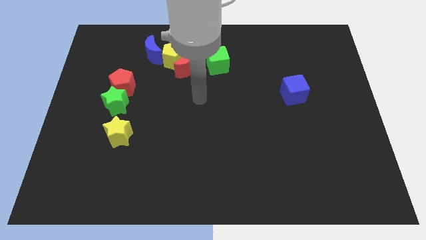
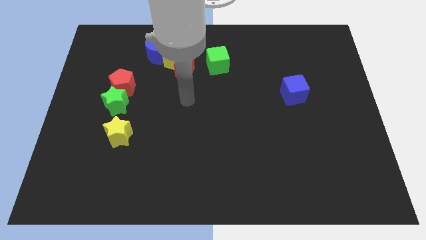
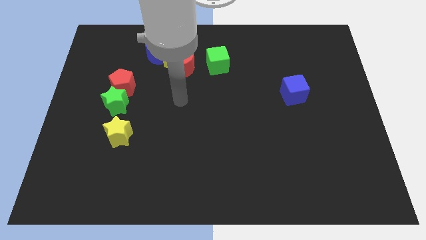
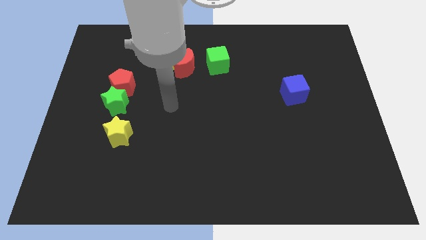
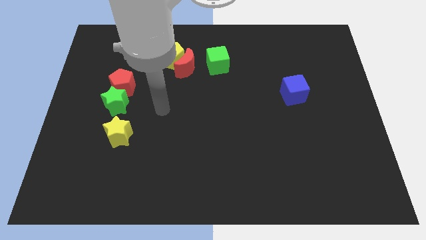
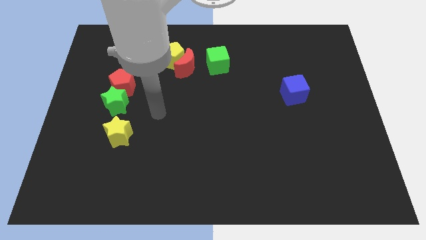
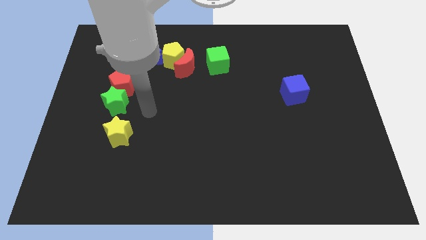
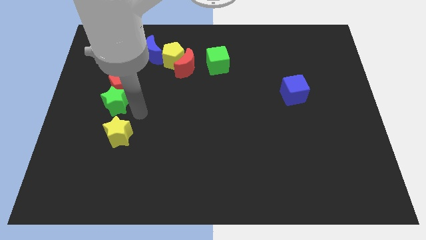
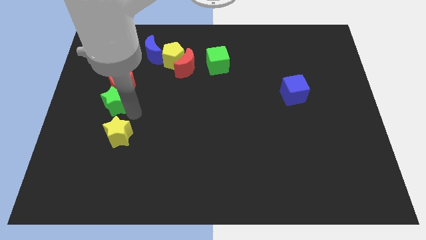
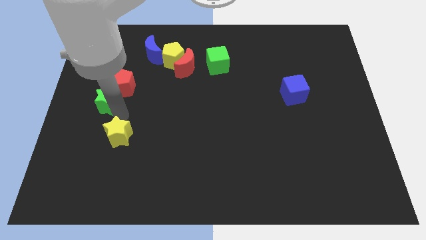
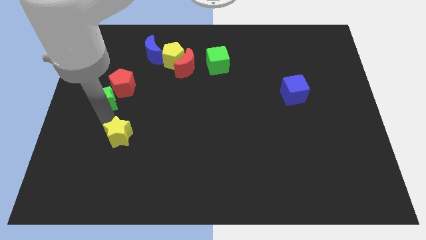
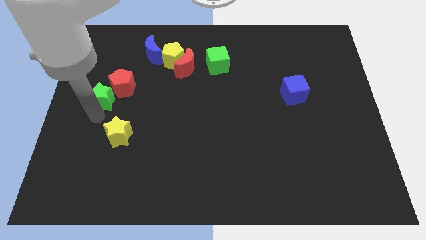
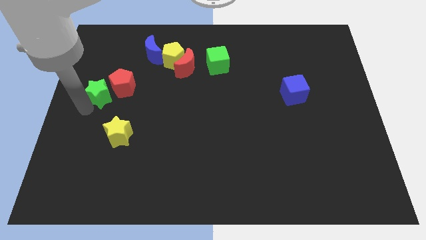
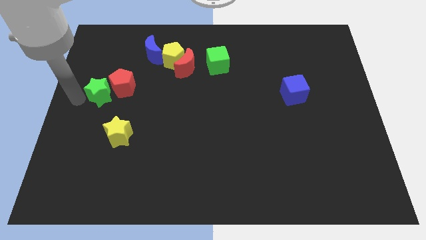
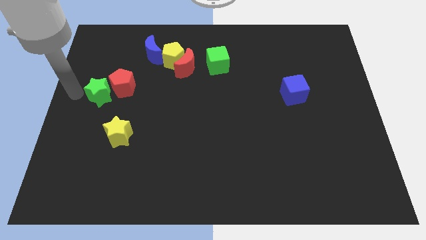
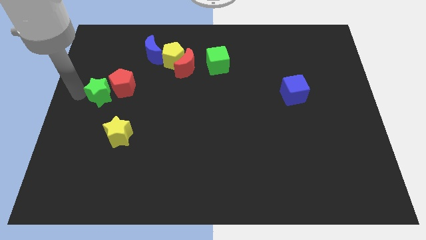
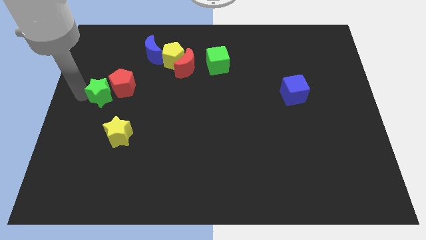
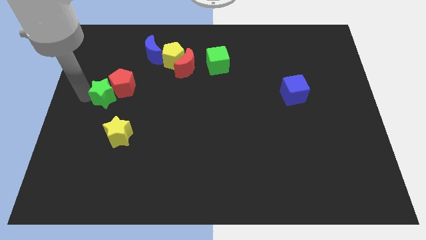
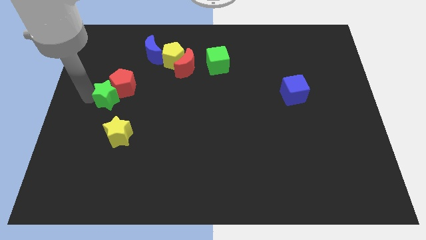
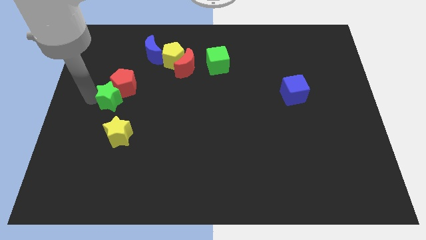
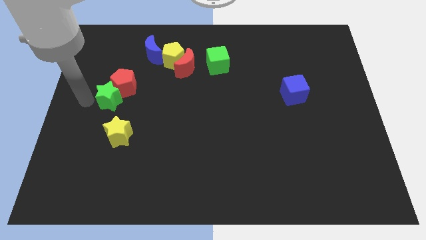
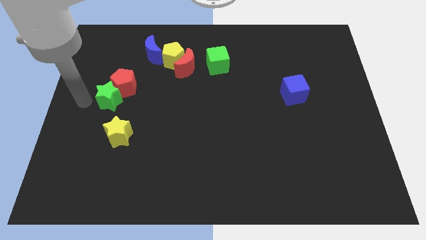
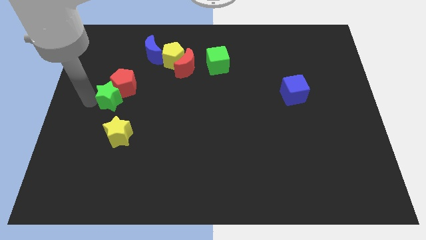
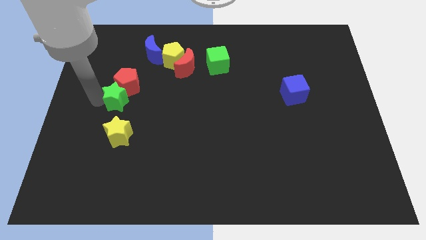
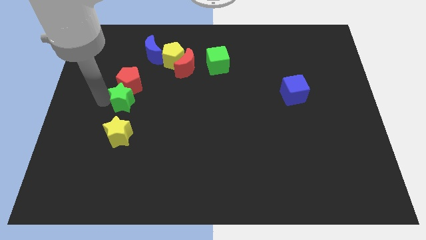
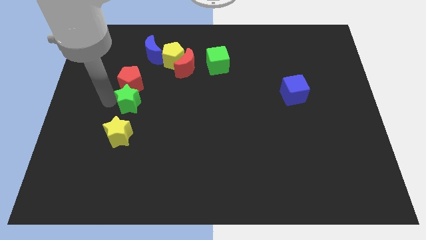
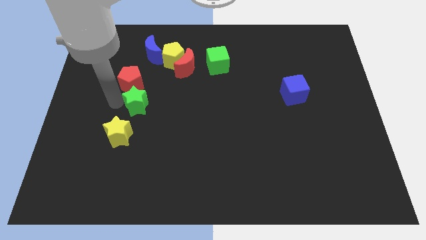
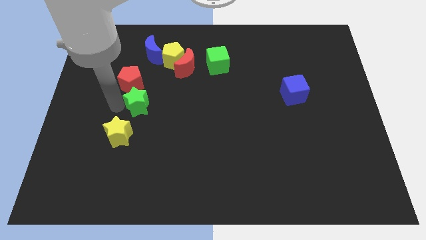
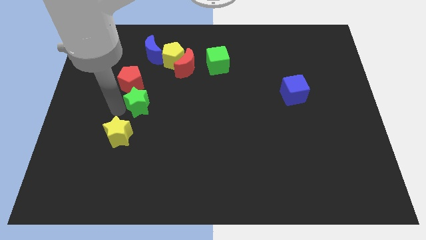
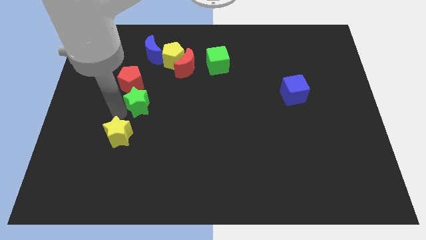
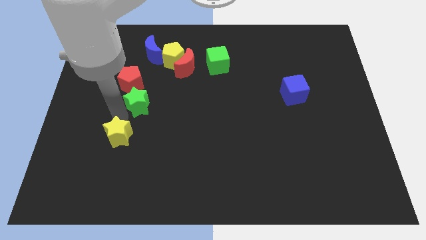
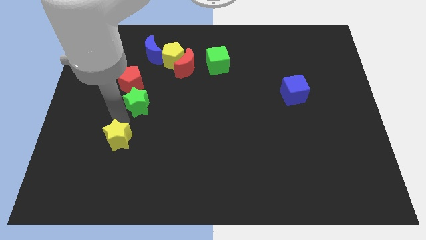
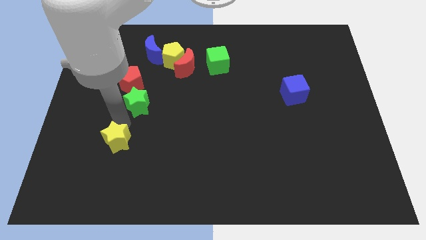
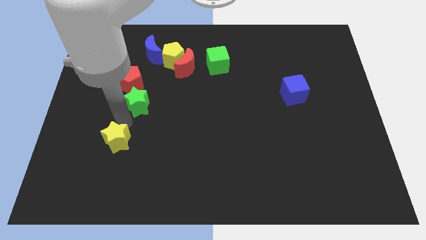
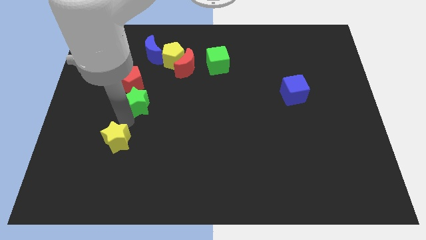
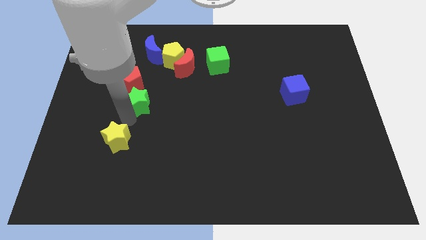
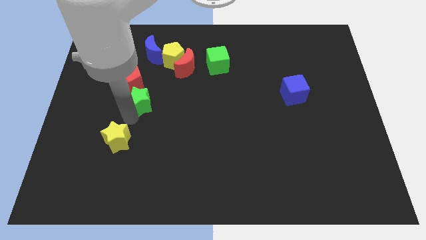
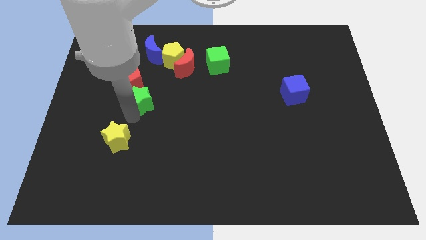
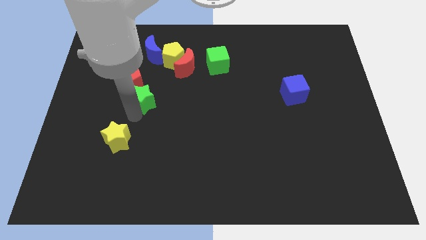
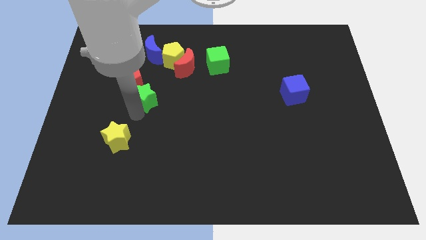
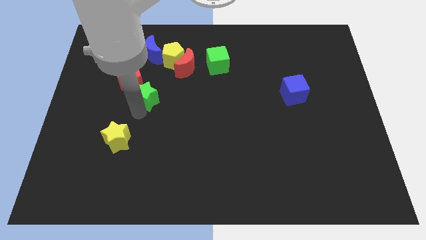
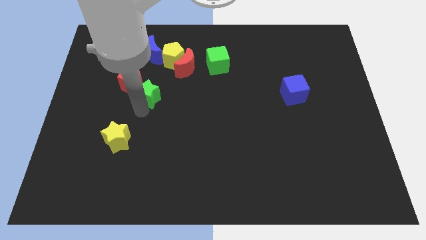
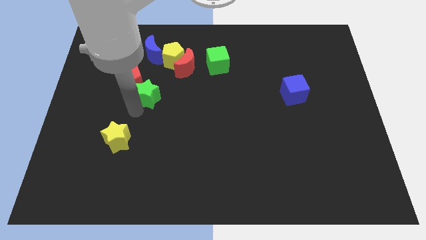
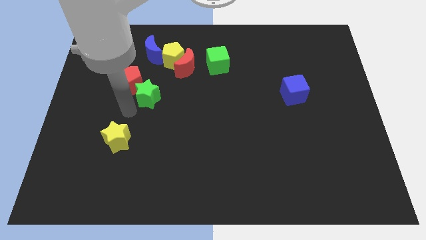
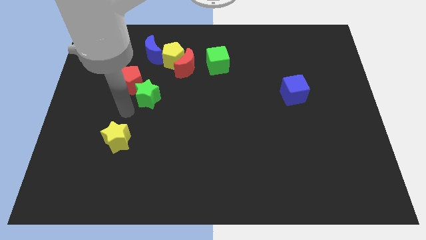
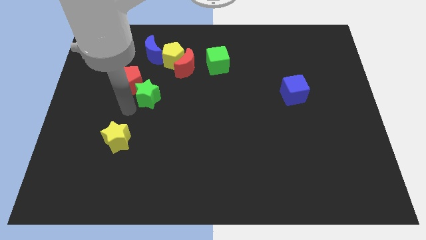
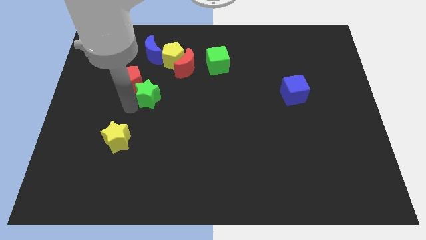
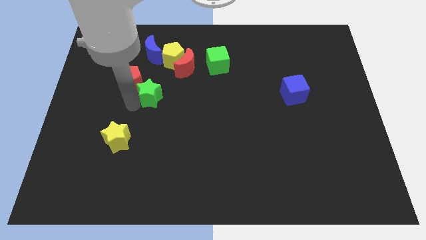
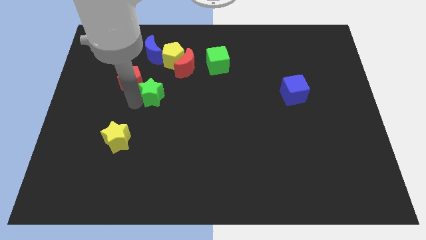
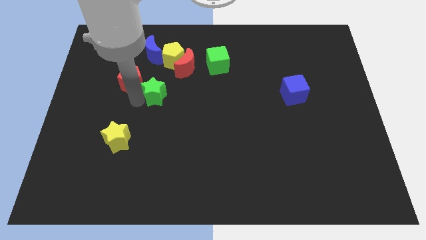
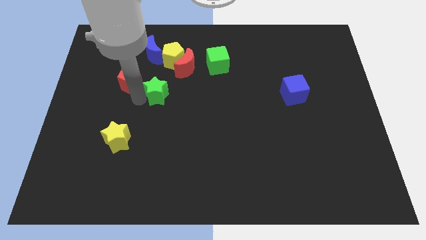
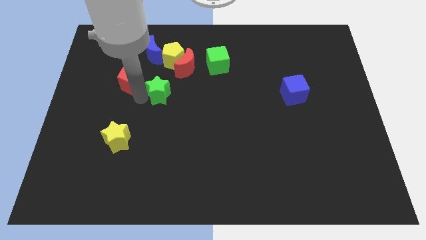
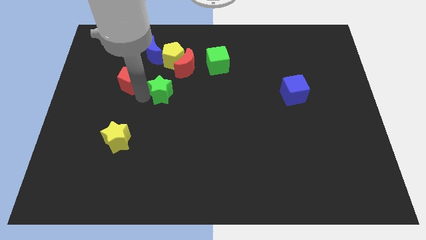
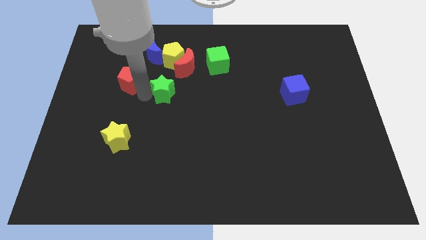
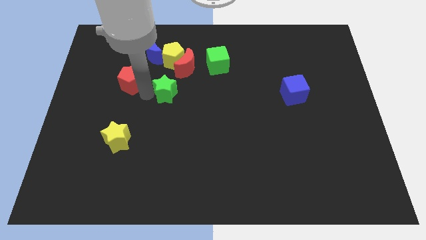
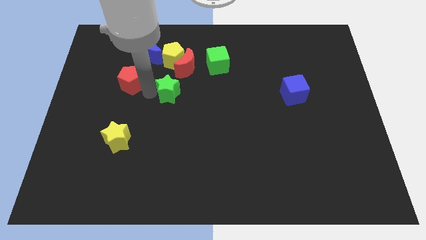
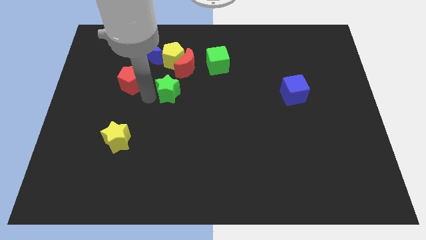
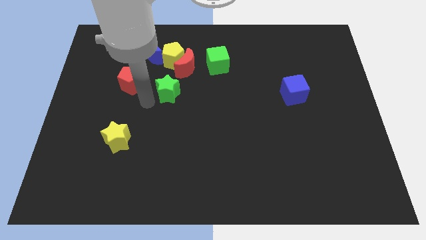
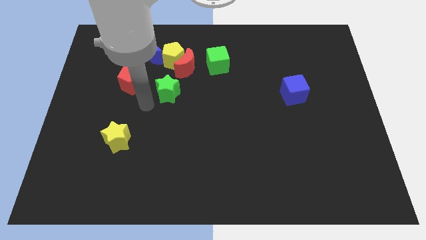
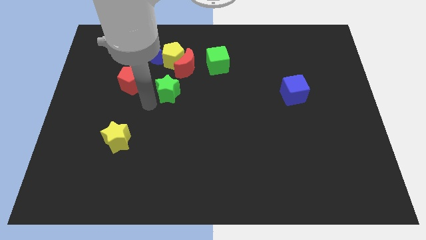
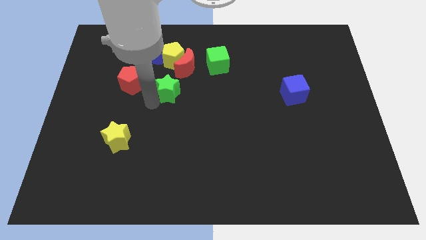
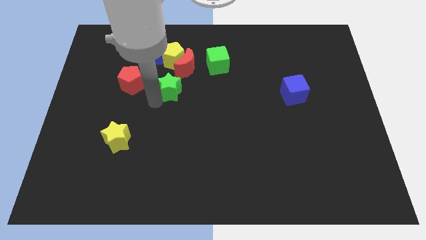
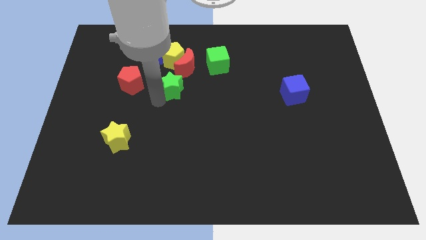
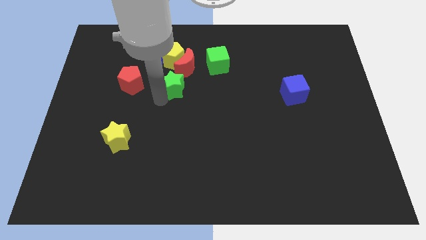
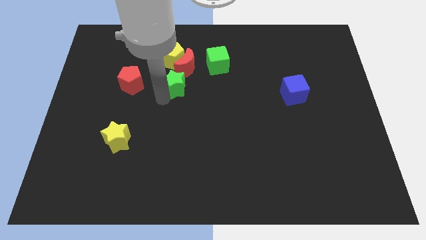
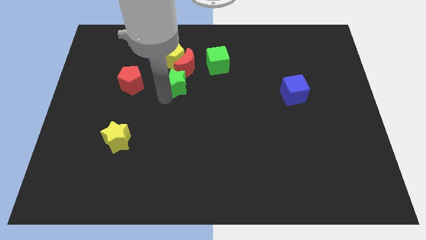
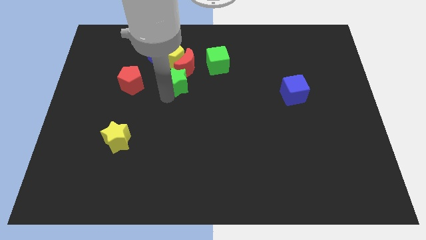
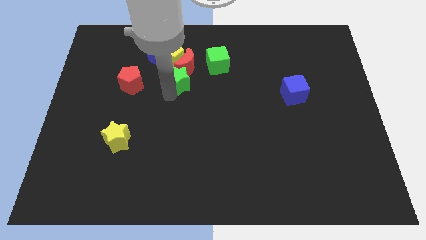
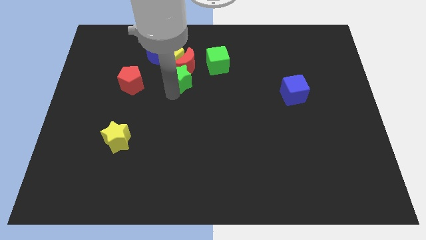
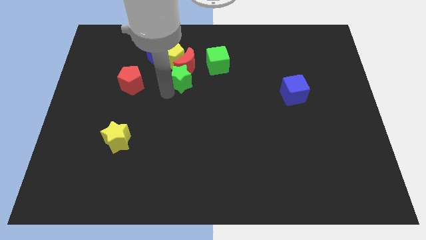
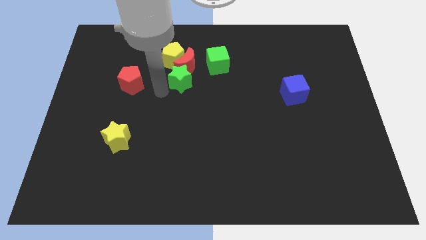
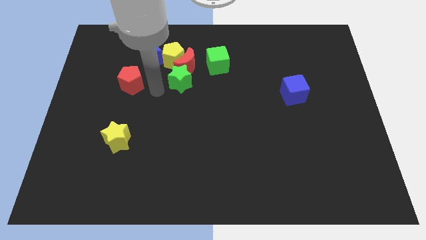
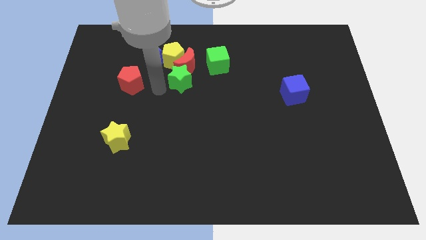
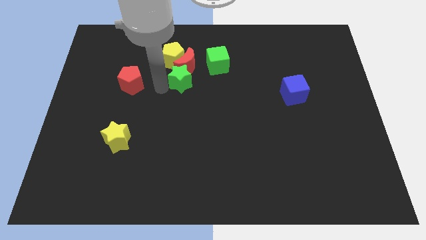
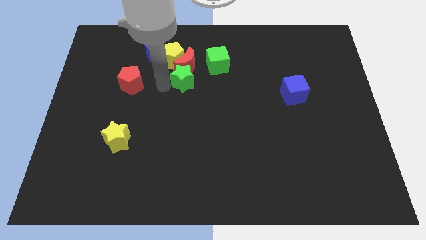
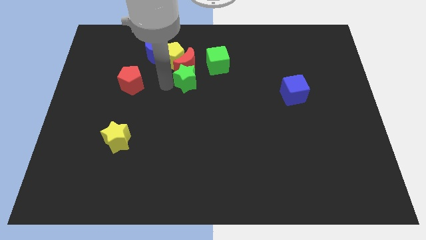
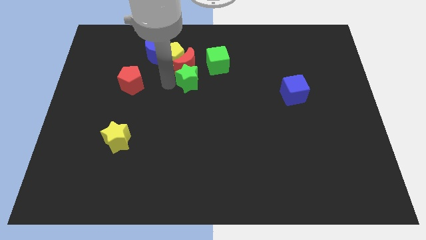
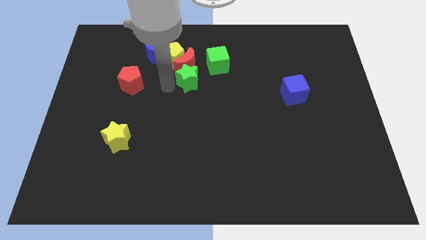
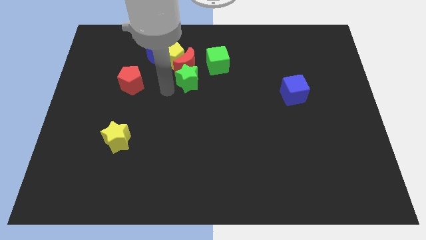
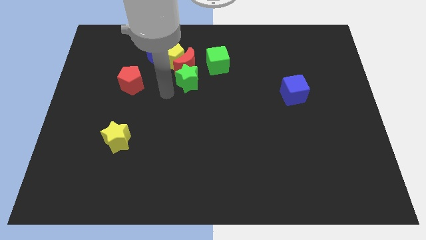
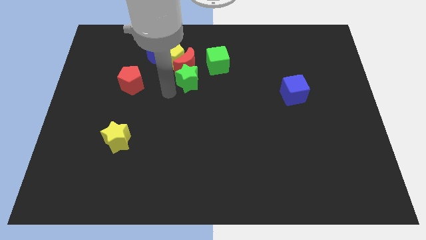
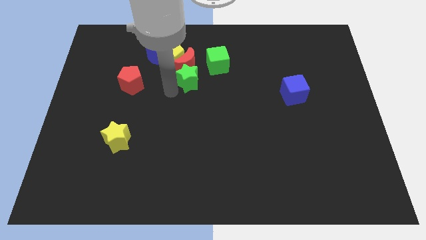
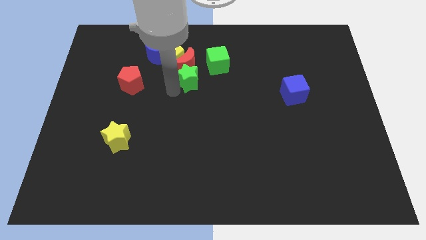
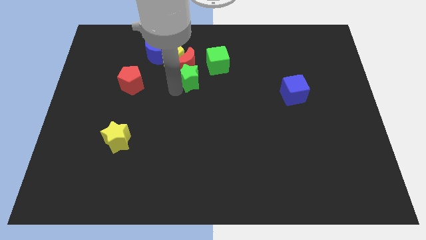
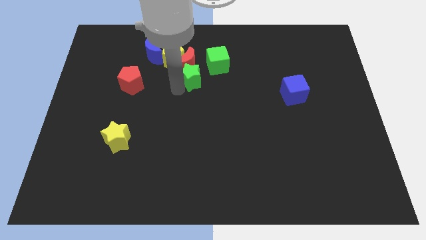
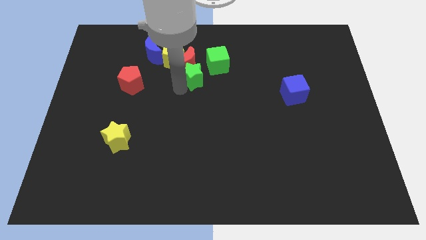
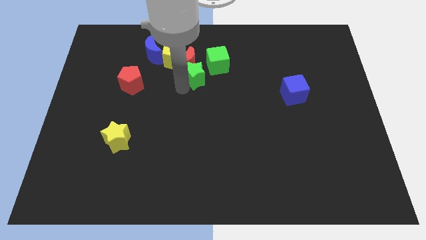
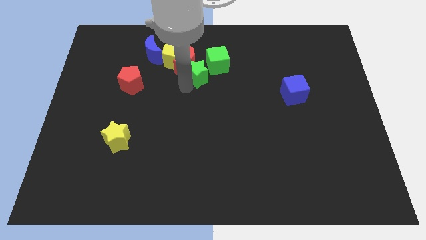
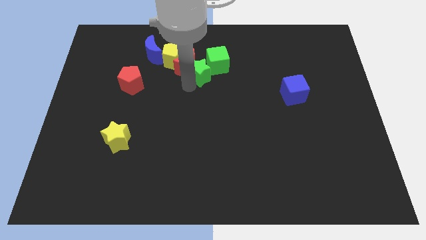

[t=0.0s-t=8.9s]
put the green star towards the green cube
